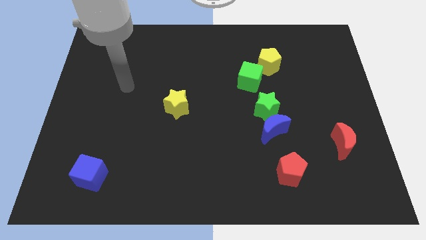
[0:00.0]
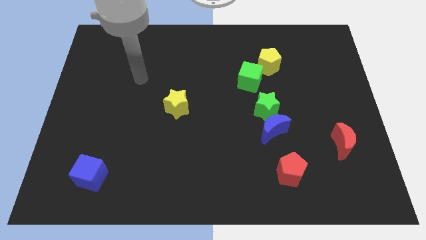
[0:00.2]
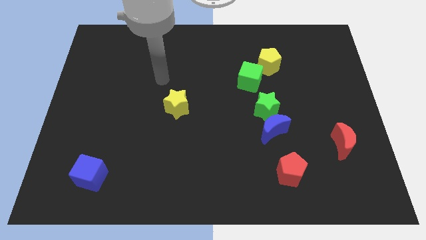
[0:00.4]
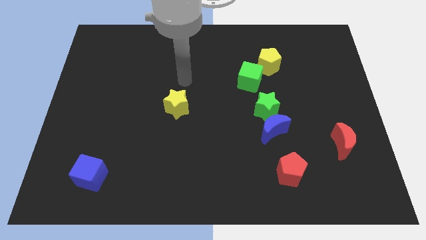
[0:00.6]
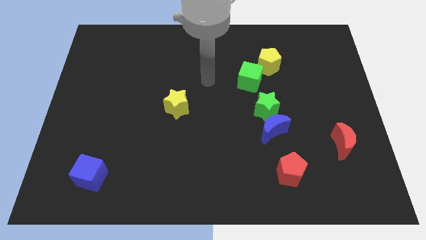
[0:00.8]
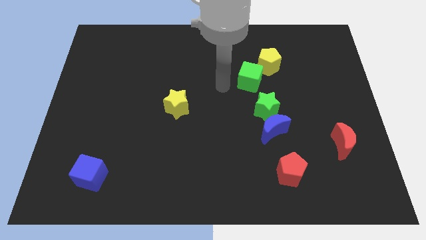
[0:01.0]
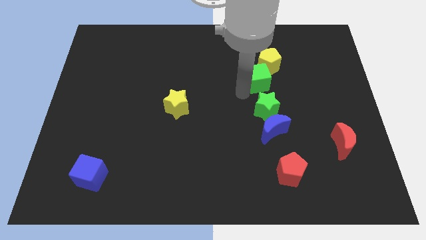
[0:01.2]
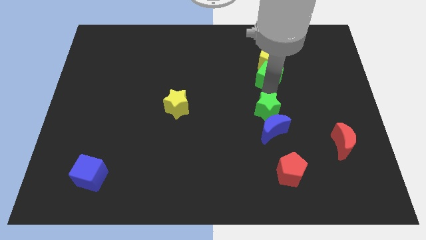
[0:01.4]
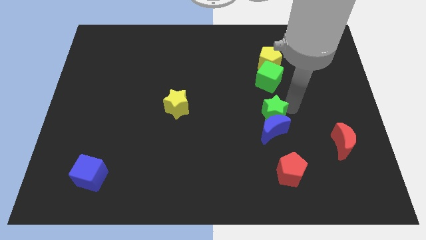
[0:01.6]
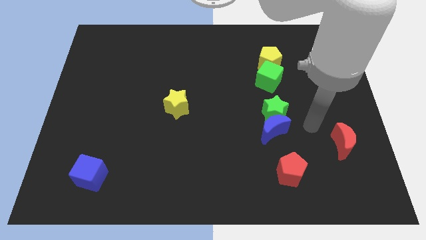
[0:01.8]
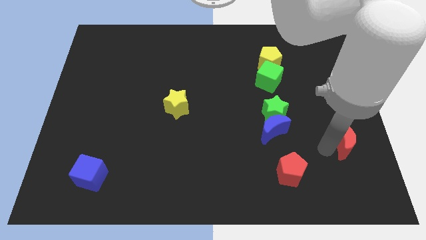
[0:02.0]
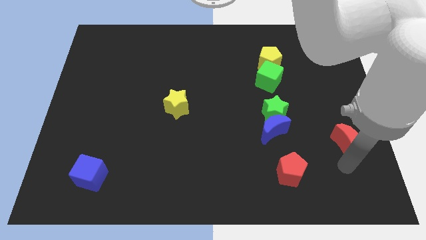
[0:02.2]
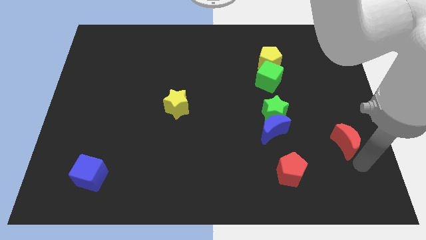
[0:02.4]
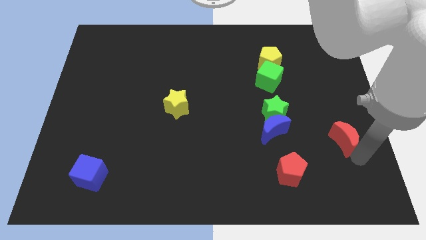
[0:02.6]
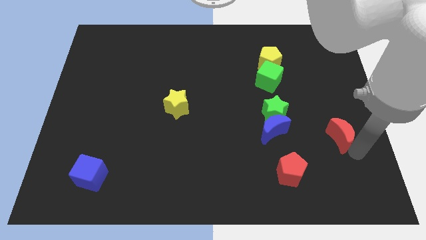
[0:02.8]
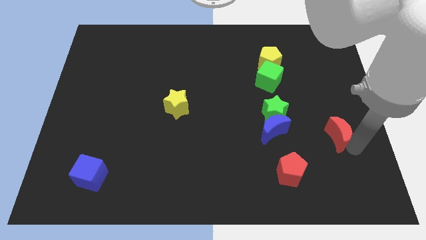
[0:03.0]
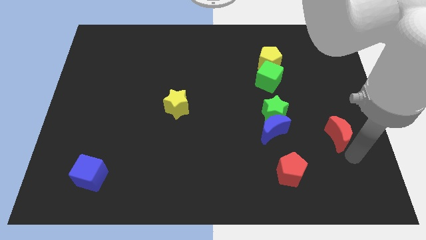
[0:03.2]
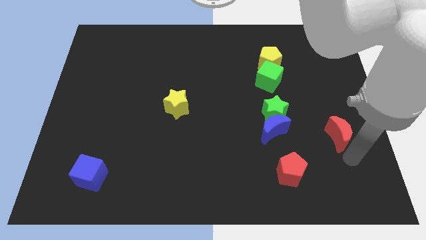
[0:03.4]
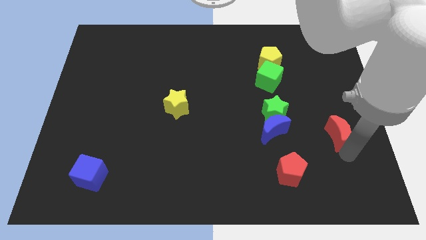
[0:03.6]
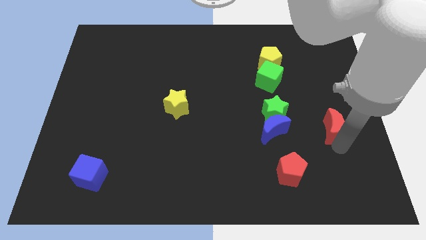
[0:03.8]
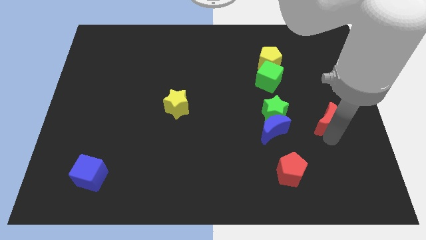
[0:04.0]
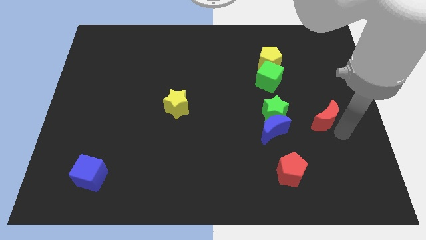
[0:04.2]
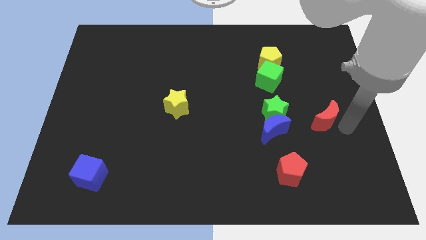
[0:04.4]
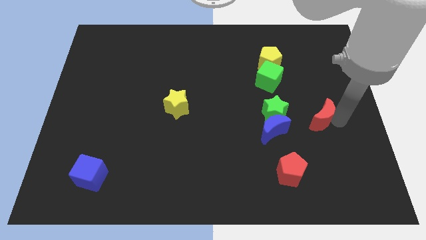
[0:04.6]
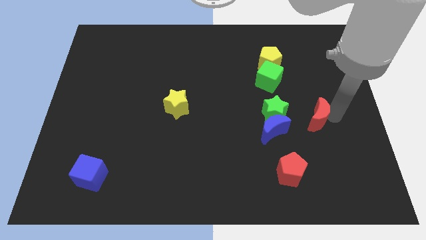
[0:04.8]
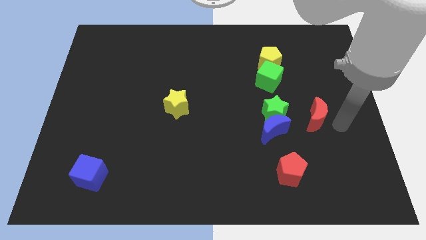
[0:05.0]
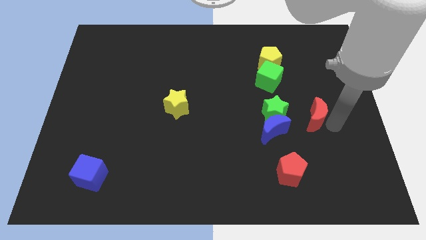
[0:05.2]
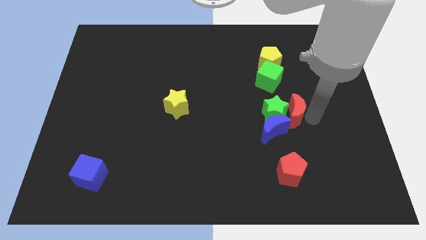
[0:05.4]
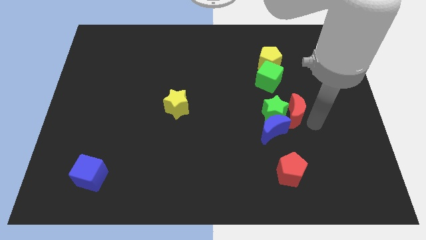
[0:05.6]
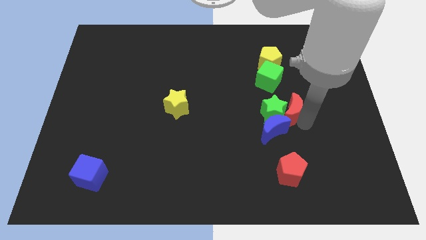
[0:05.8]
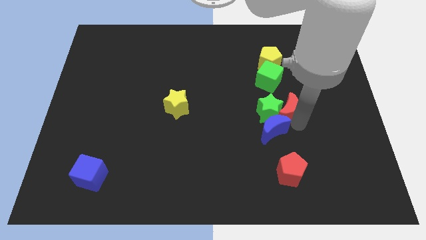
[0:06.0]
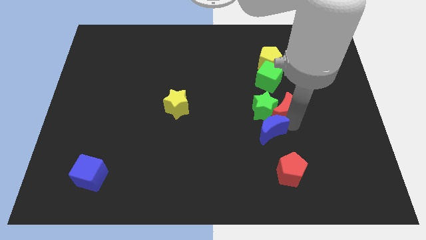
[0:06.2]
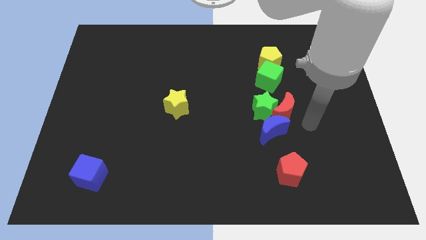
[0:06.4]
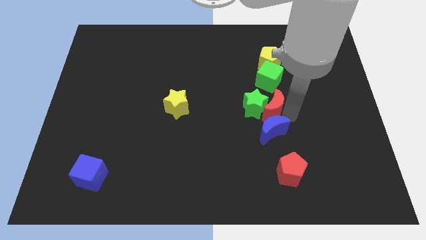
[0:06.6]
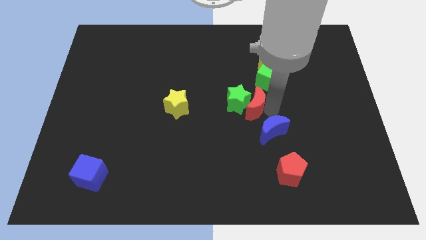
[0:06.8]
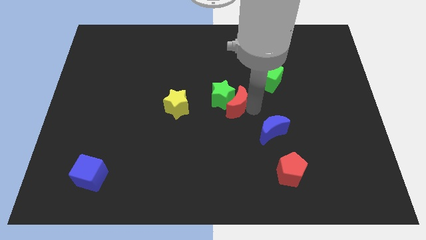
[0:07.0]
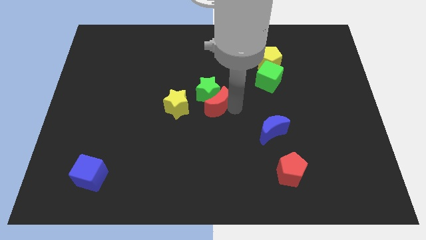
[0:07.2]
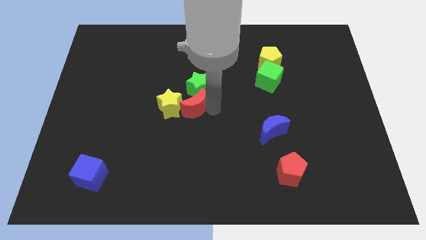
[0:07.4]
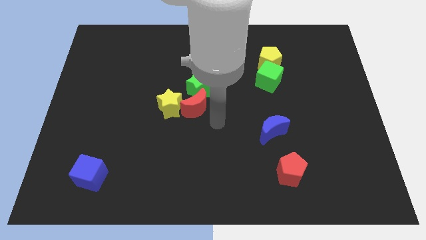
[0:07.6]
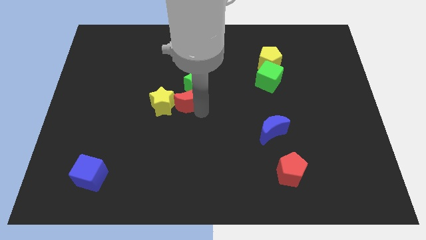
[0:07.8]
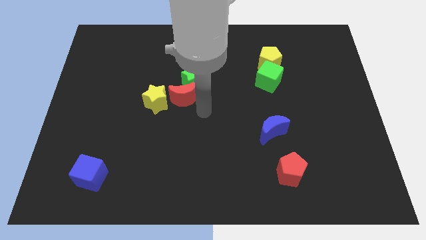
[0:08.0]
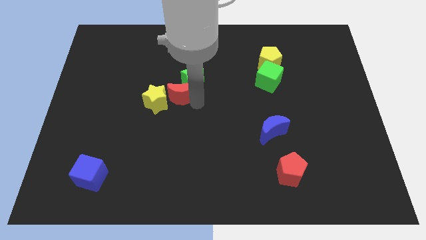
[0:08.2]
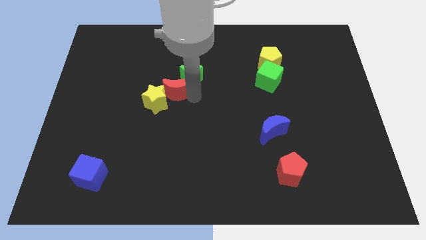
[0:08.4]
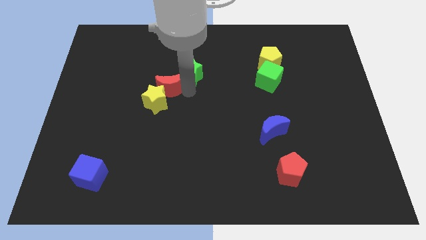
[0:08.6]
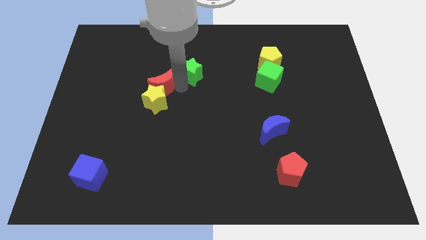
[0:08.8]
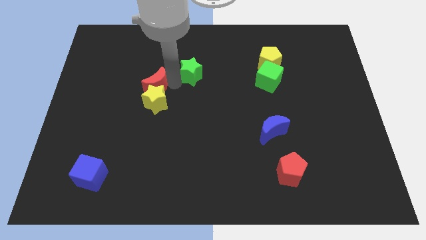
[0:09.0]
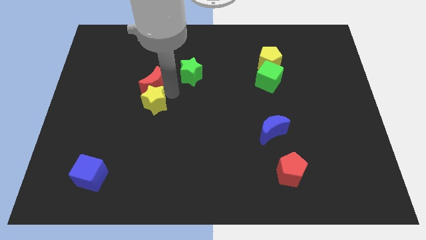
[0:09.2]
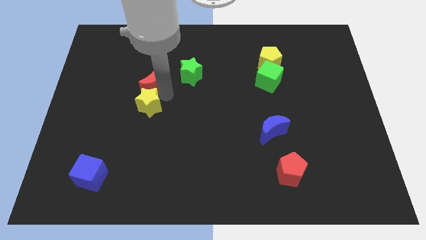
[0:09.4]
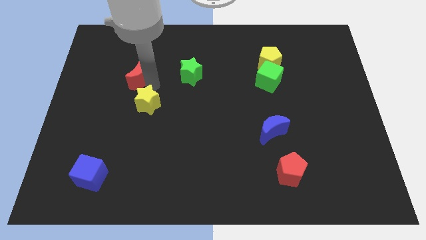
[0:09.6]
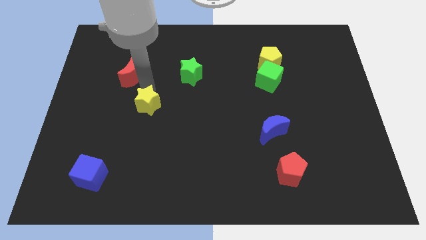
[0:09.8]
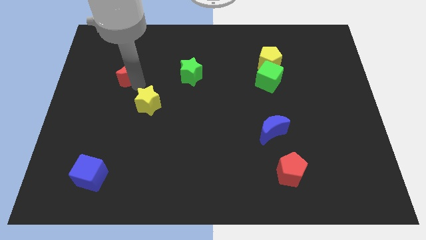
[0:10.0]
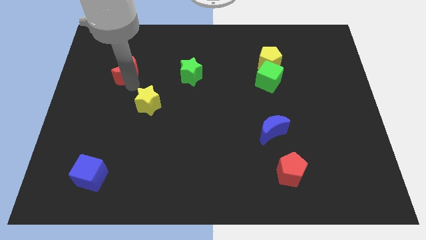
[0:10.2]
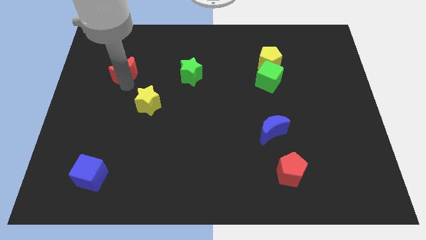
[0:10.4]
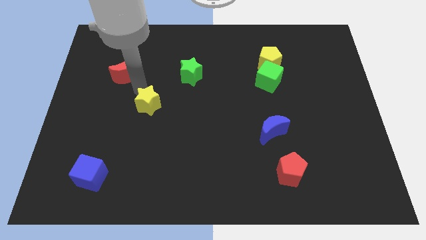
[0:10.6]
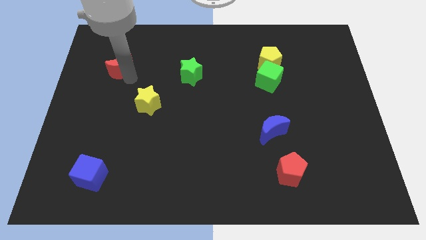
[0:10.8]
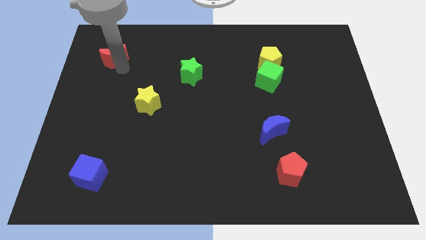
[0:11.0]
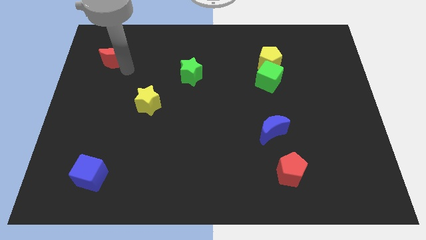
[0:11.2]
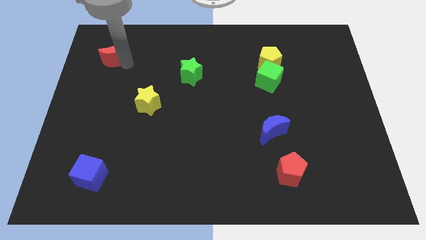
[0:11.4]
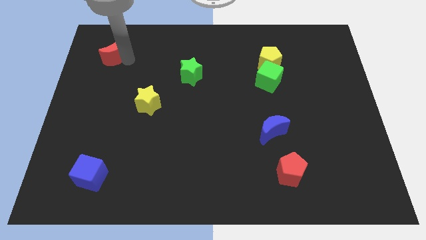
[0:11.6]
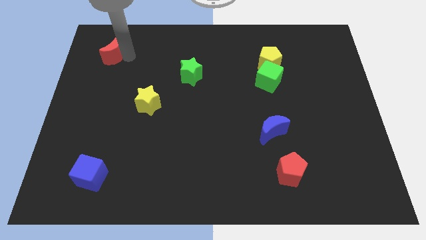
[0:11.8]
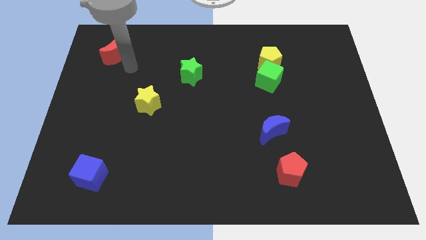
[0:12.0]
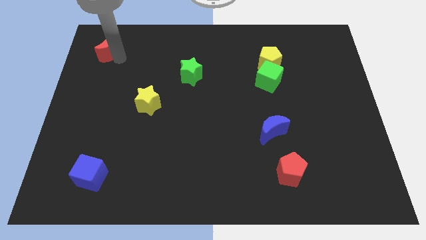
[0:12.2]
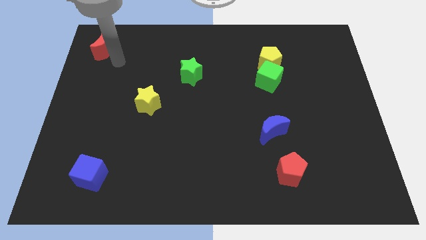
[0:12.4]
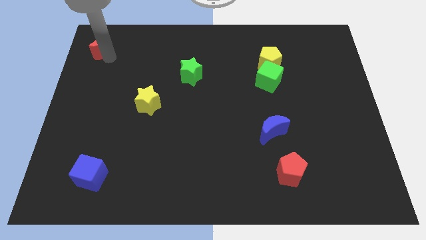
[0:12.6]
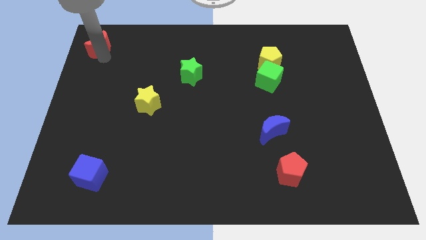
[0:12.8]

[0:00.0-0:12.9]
push the red moon to the top left corner

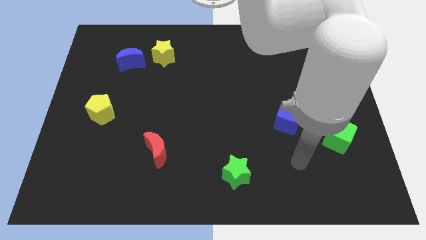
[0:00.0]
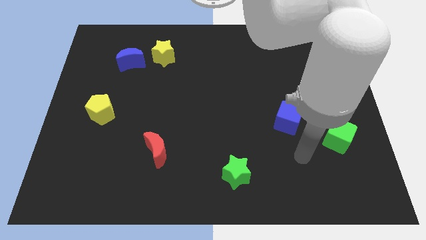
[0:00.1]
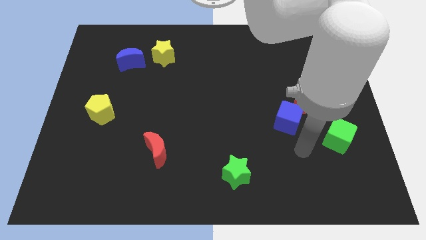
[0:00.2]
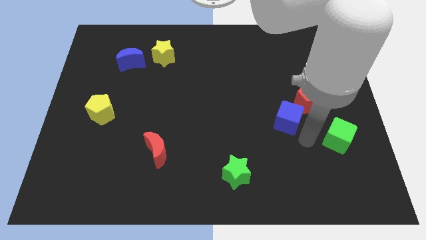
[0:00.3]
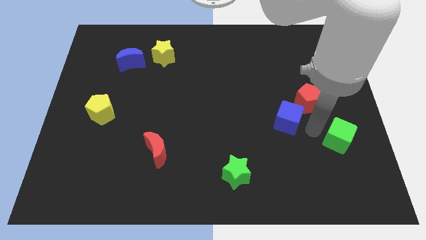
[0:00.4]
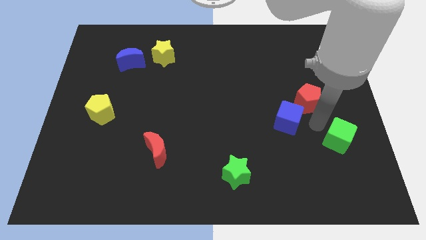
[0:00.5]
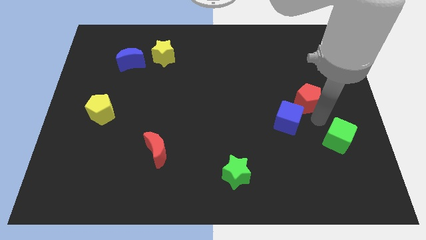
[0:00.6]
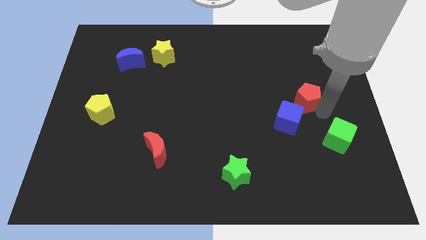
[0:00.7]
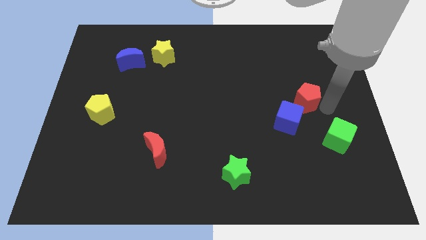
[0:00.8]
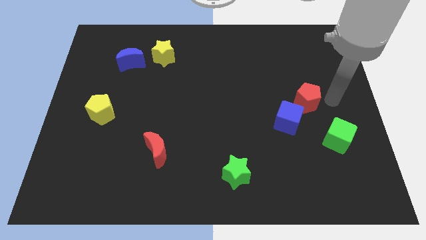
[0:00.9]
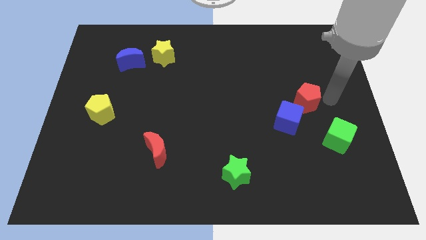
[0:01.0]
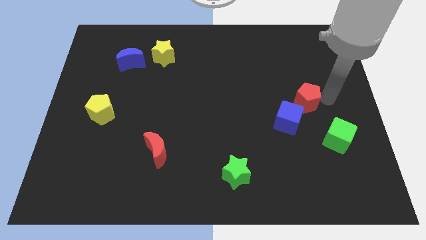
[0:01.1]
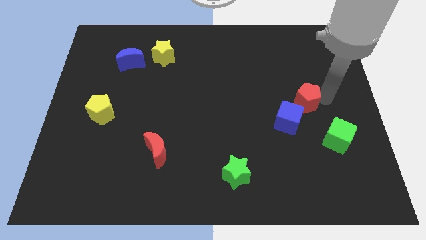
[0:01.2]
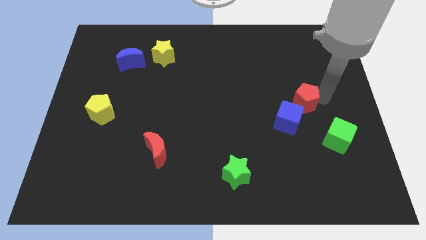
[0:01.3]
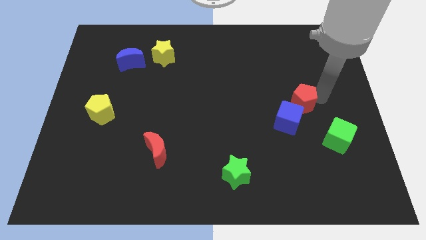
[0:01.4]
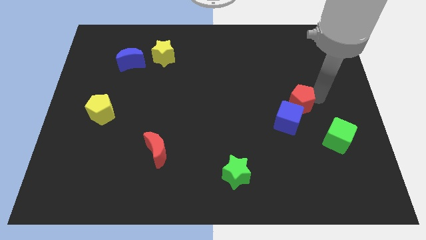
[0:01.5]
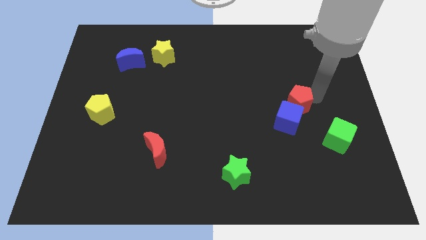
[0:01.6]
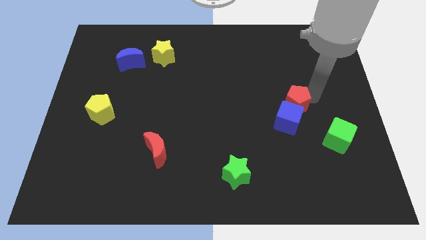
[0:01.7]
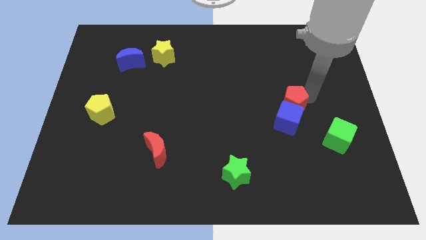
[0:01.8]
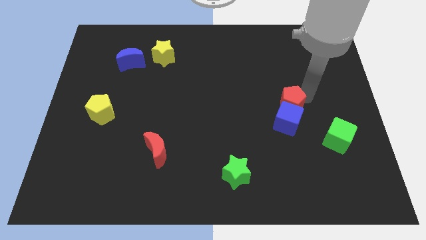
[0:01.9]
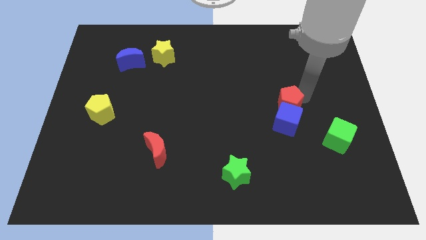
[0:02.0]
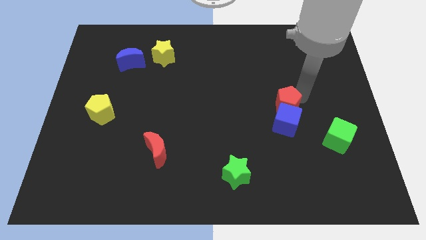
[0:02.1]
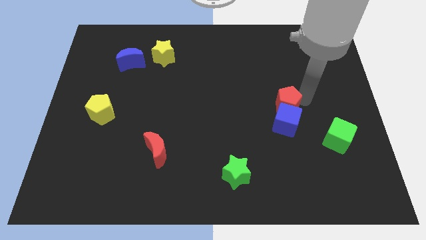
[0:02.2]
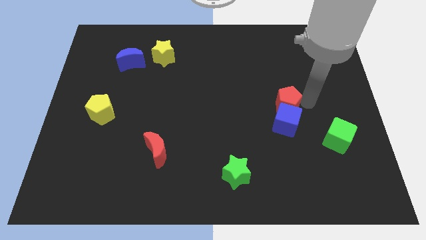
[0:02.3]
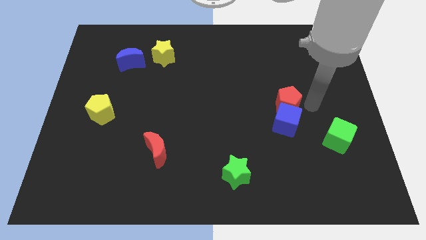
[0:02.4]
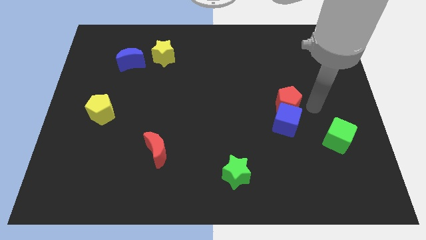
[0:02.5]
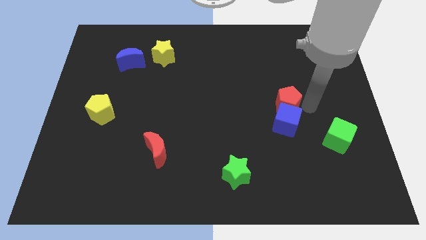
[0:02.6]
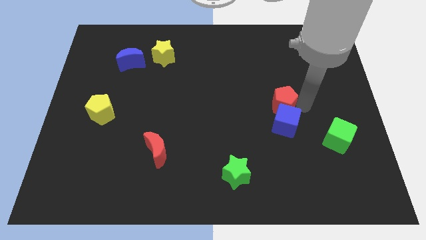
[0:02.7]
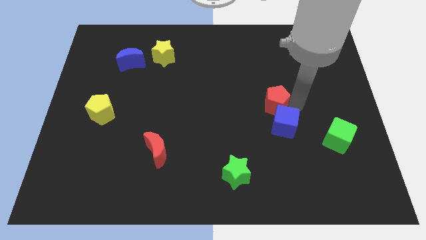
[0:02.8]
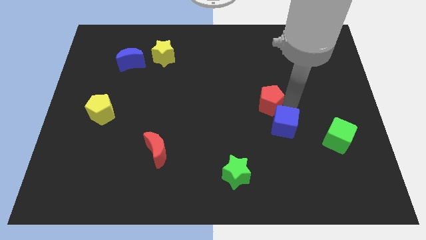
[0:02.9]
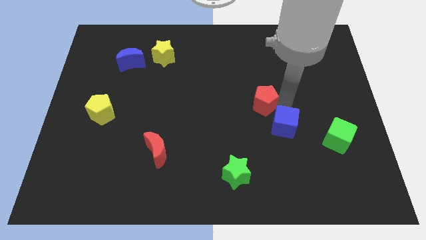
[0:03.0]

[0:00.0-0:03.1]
push the red pentagon to the middle of the board
